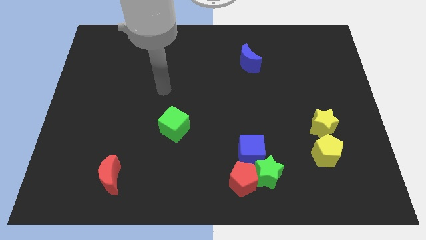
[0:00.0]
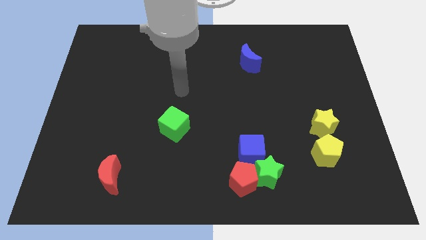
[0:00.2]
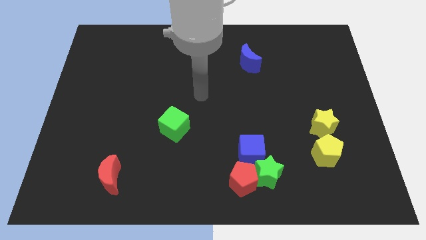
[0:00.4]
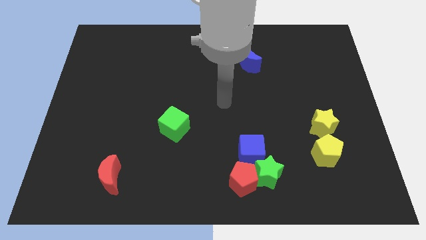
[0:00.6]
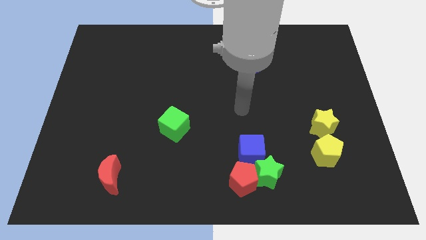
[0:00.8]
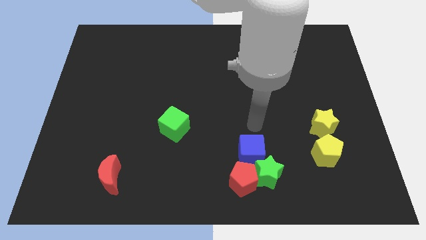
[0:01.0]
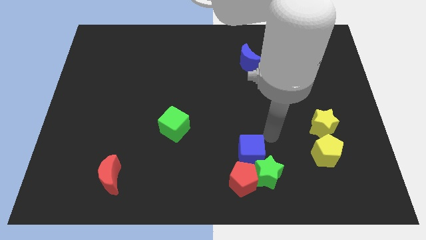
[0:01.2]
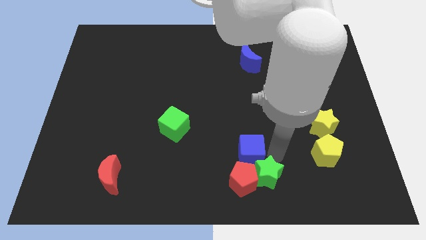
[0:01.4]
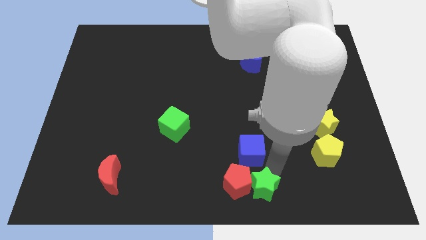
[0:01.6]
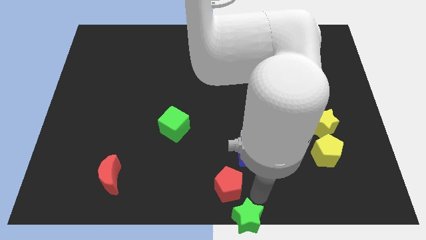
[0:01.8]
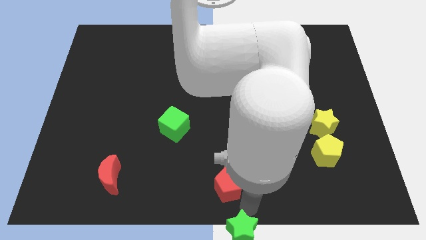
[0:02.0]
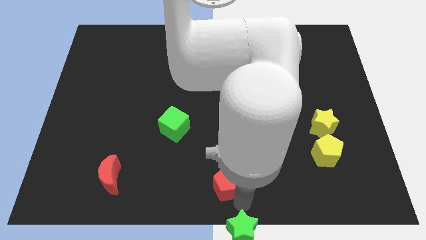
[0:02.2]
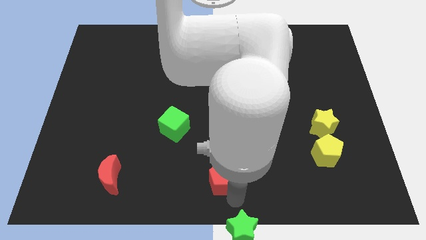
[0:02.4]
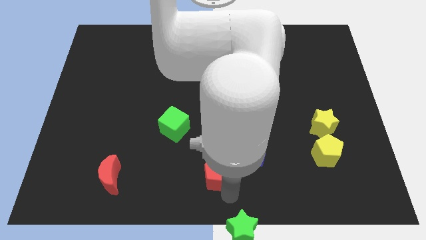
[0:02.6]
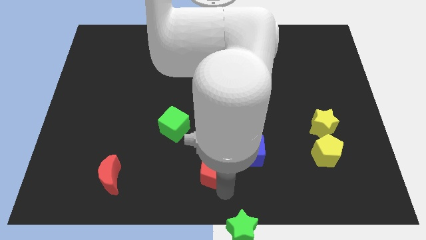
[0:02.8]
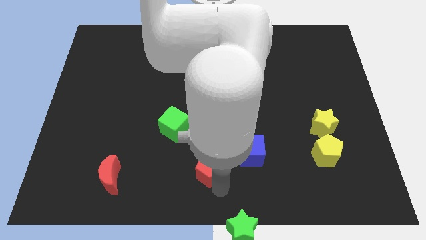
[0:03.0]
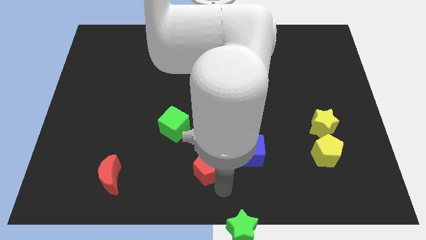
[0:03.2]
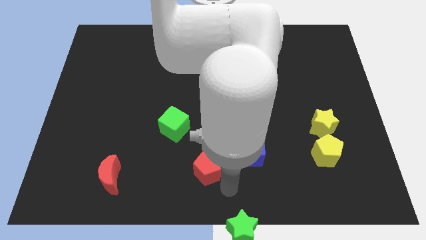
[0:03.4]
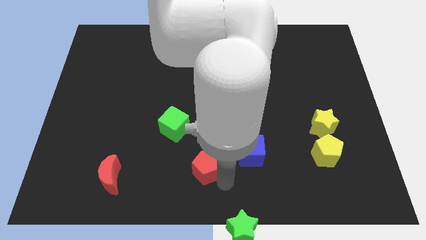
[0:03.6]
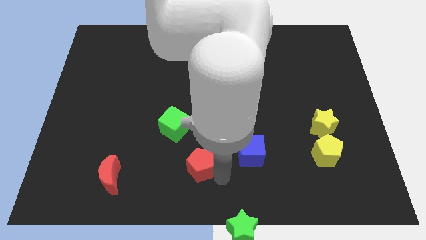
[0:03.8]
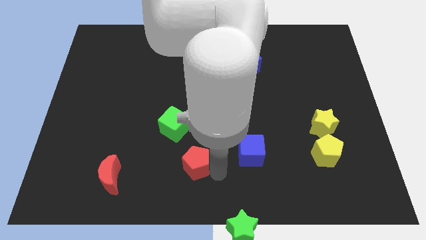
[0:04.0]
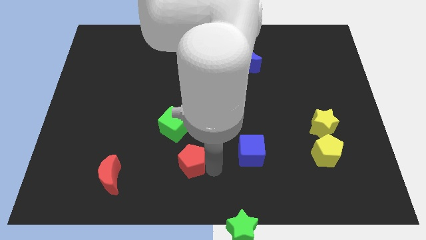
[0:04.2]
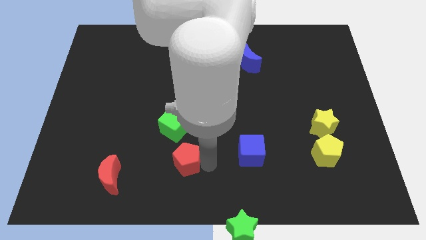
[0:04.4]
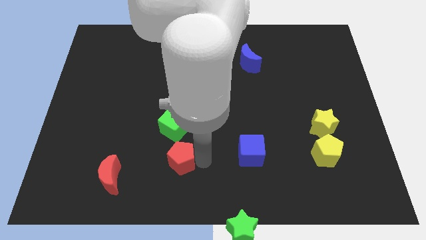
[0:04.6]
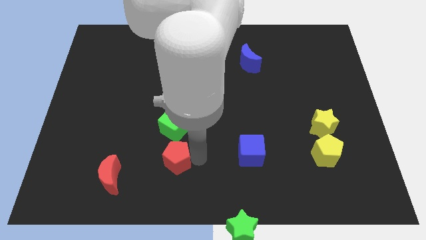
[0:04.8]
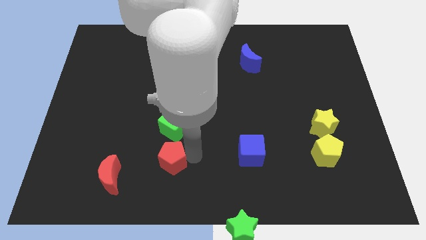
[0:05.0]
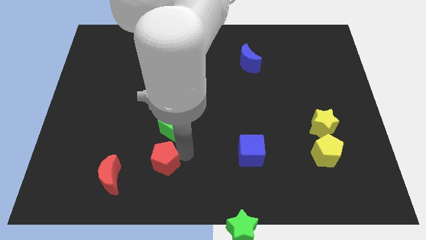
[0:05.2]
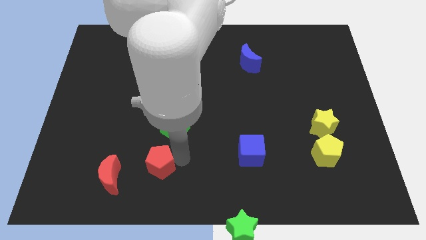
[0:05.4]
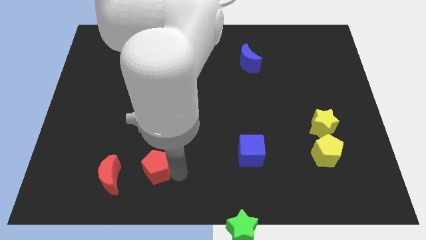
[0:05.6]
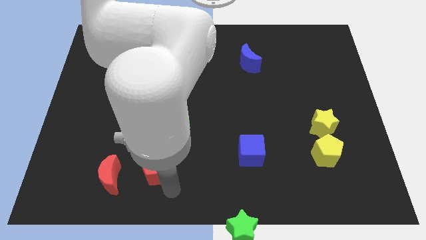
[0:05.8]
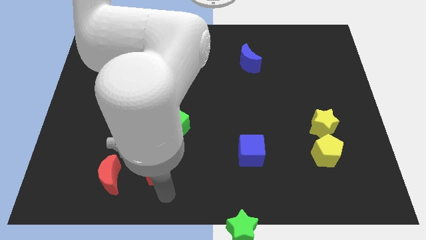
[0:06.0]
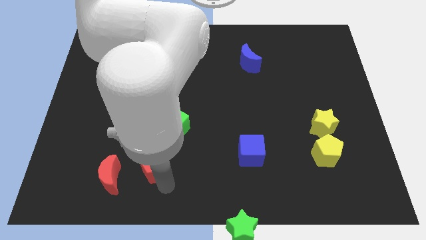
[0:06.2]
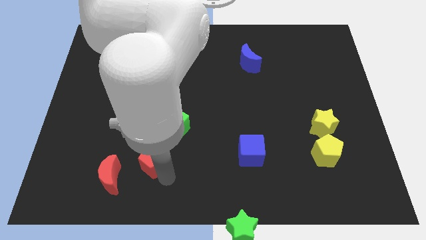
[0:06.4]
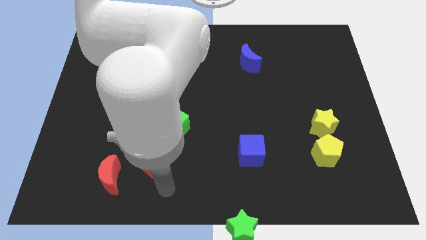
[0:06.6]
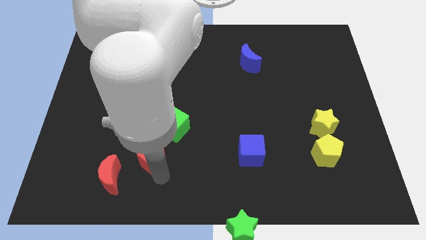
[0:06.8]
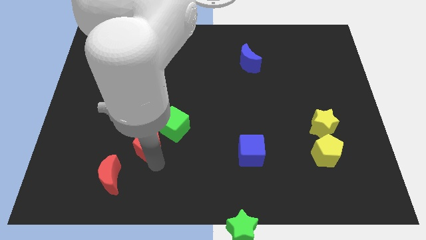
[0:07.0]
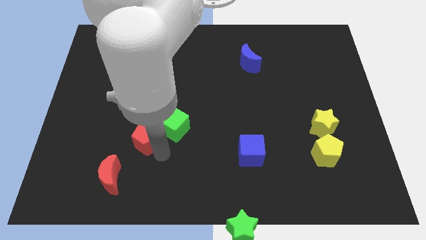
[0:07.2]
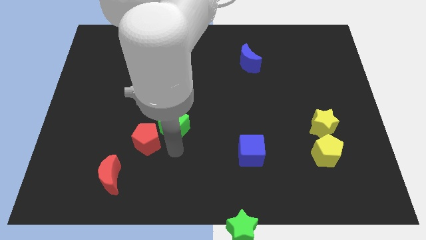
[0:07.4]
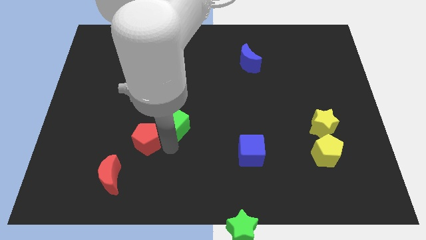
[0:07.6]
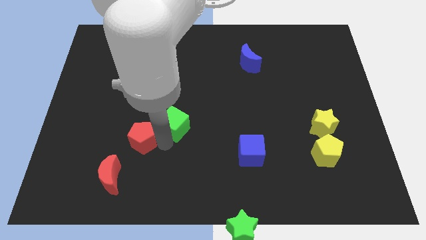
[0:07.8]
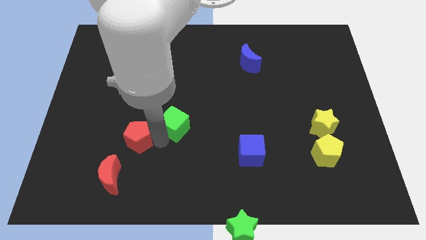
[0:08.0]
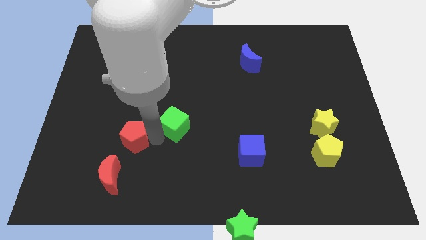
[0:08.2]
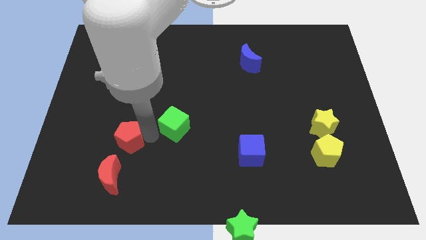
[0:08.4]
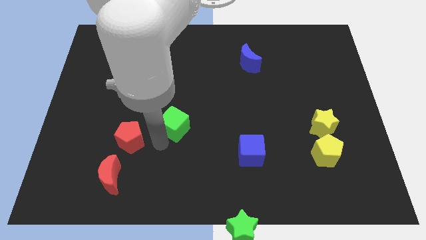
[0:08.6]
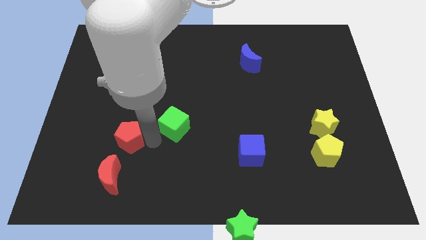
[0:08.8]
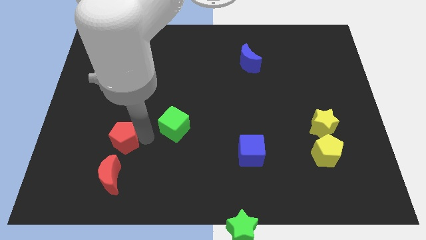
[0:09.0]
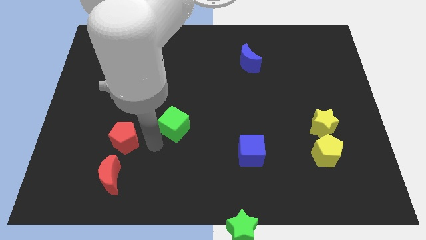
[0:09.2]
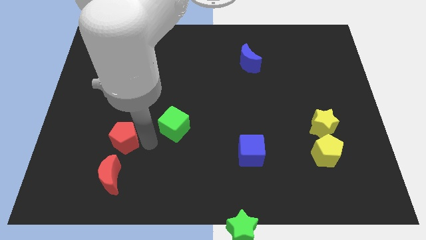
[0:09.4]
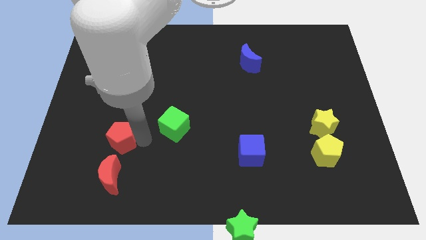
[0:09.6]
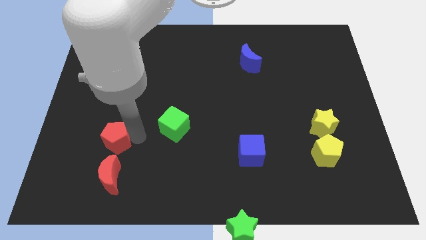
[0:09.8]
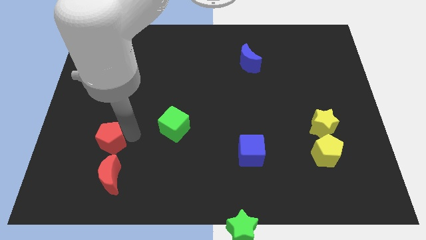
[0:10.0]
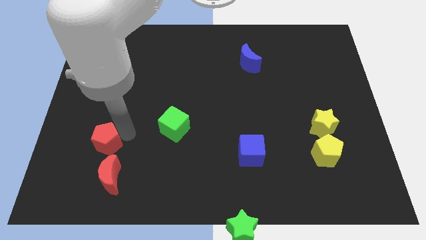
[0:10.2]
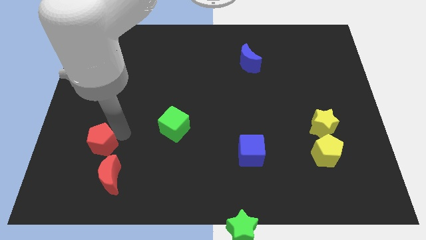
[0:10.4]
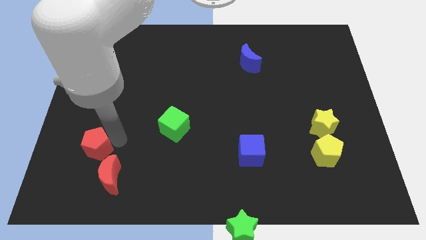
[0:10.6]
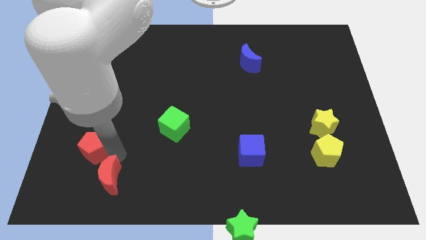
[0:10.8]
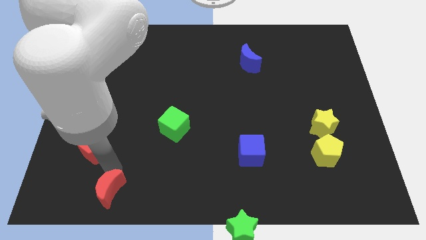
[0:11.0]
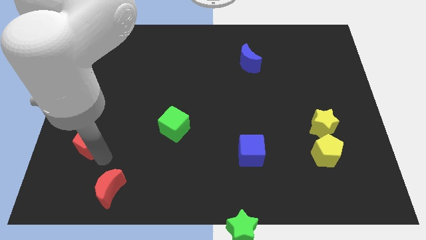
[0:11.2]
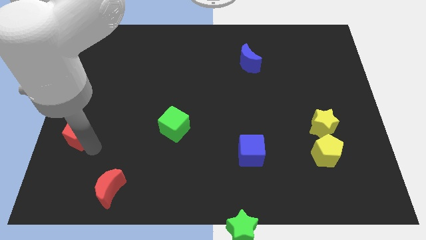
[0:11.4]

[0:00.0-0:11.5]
slide the red pentagon to the center left

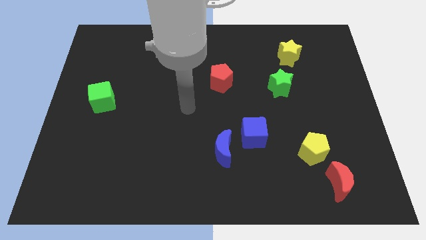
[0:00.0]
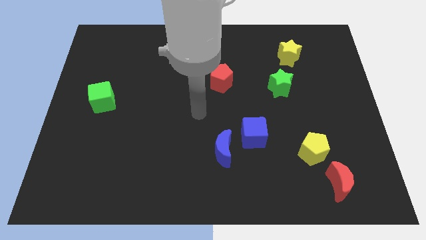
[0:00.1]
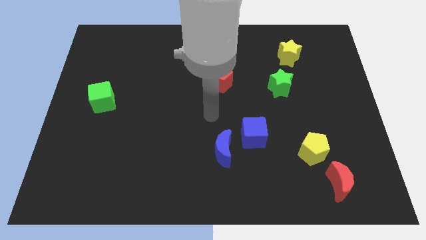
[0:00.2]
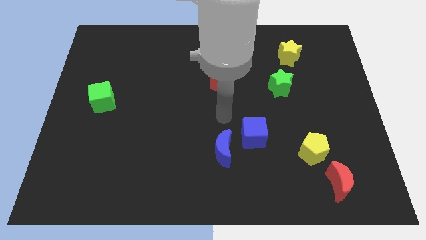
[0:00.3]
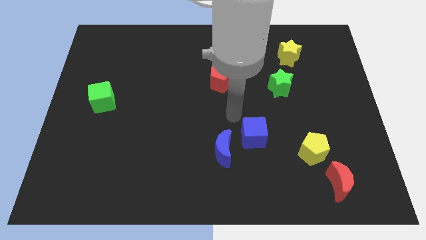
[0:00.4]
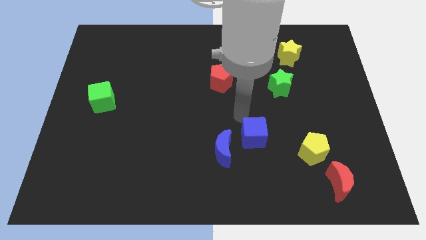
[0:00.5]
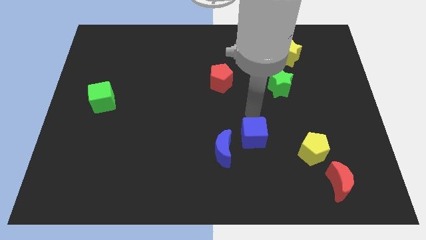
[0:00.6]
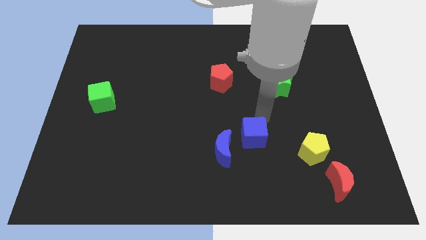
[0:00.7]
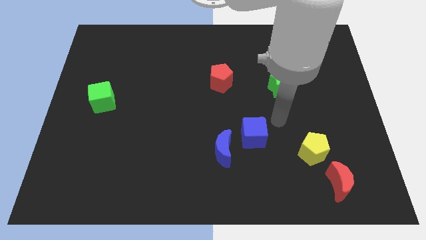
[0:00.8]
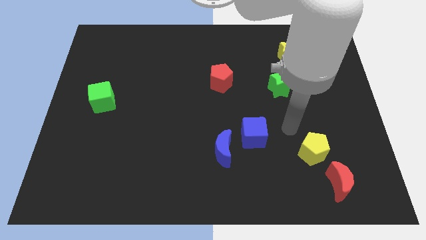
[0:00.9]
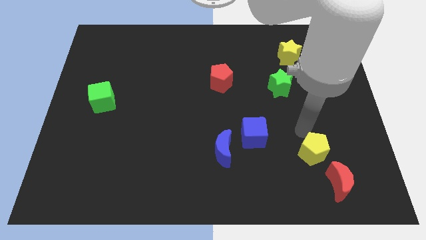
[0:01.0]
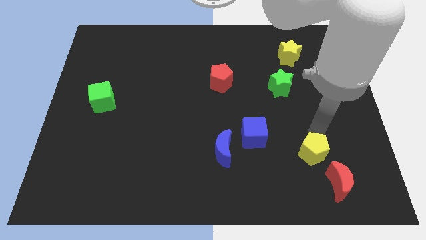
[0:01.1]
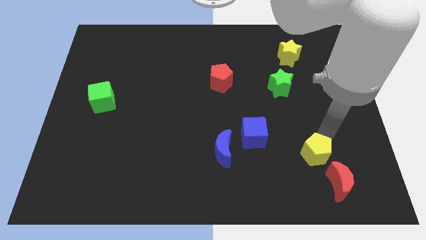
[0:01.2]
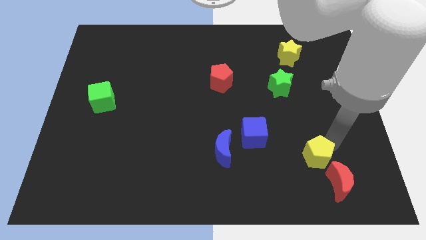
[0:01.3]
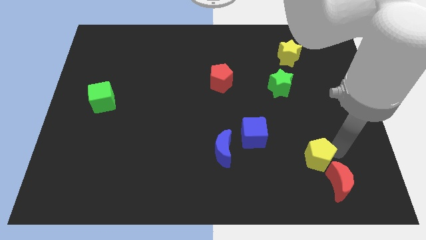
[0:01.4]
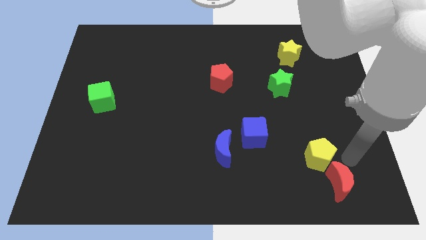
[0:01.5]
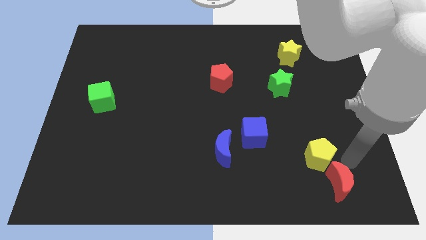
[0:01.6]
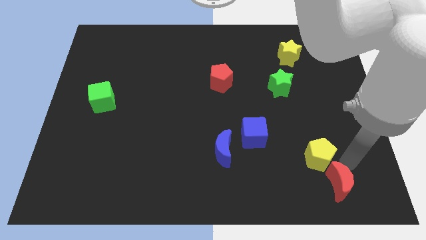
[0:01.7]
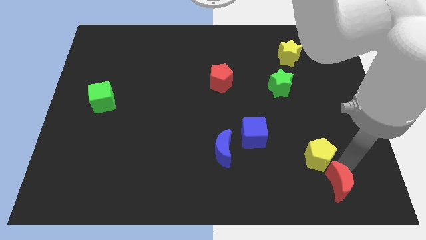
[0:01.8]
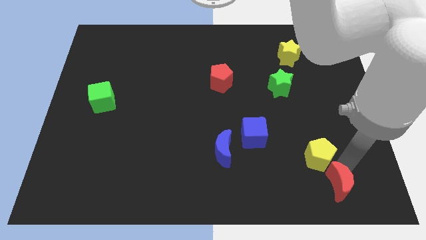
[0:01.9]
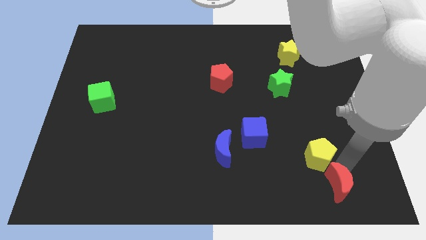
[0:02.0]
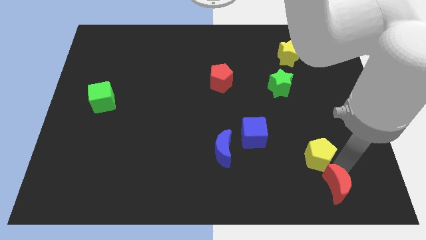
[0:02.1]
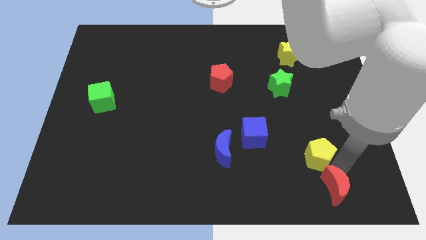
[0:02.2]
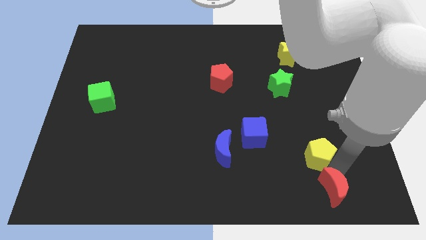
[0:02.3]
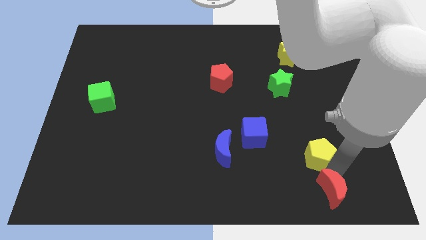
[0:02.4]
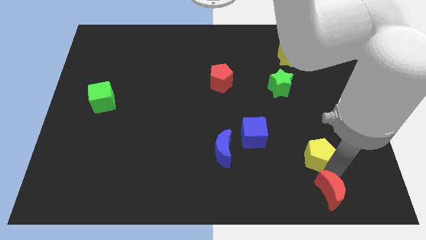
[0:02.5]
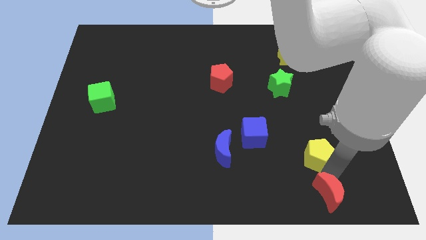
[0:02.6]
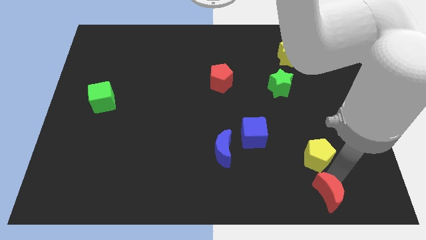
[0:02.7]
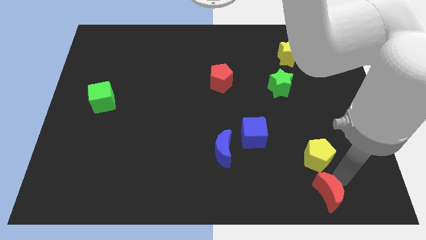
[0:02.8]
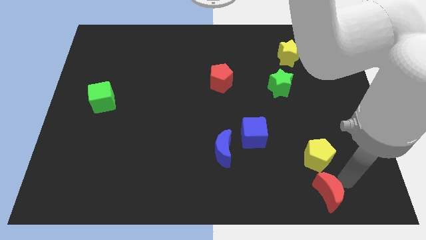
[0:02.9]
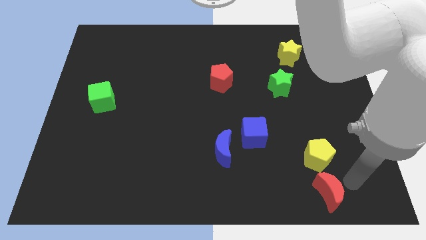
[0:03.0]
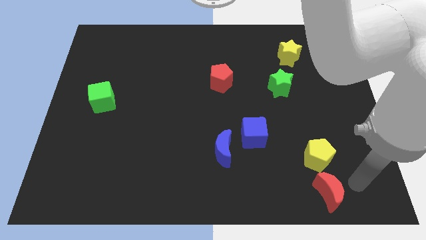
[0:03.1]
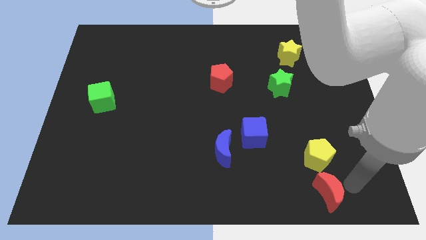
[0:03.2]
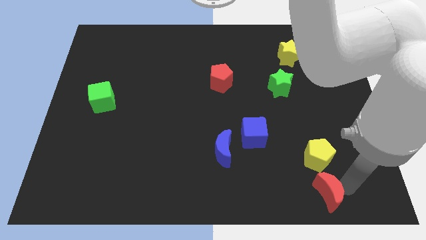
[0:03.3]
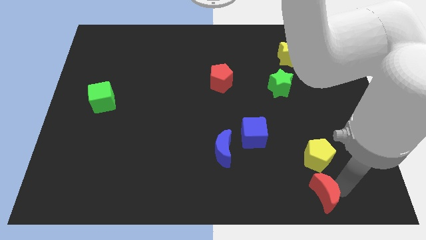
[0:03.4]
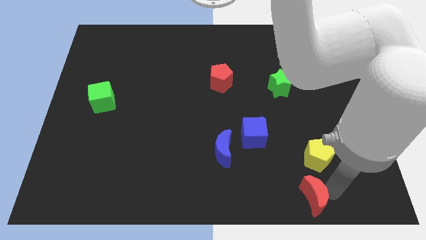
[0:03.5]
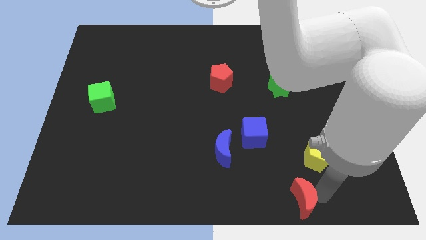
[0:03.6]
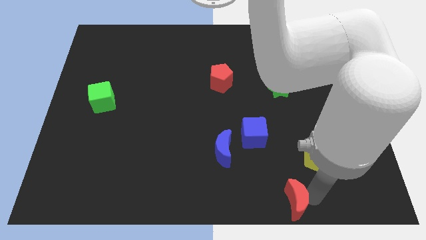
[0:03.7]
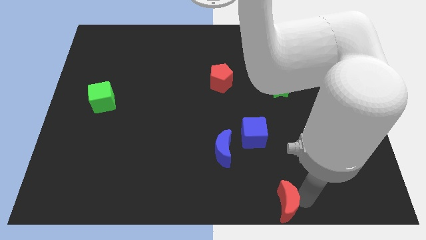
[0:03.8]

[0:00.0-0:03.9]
slide the red moon to the bottom
